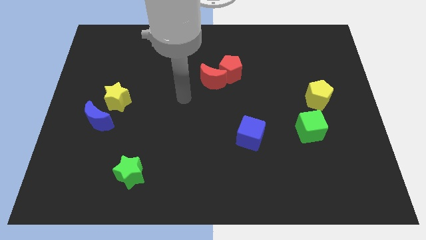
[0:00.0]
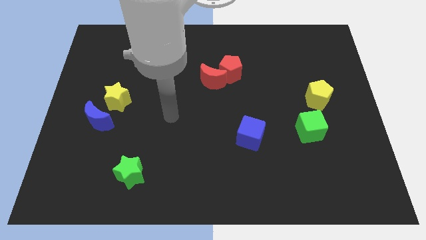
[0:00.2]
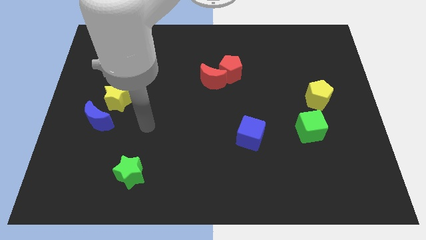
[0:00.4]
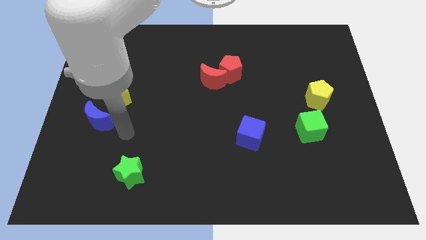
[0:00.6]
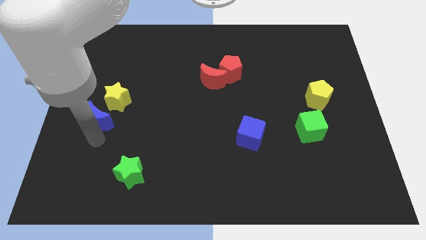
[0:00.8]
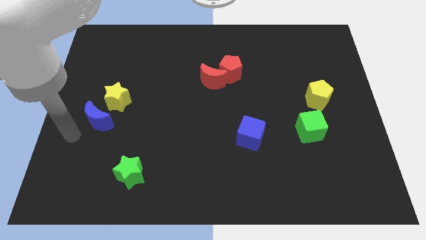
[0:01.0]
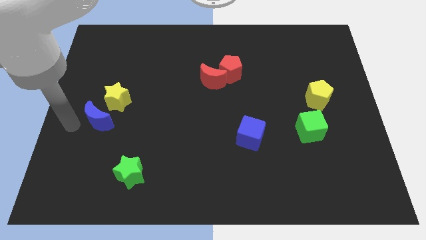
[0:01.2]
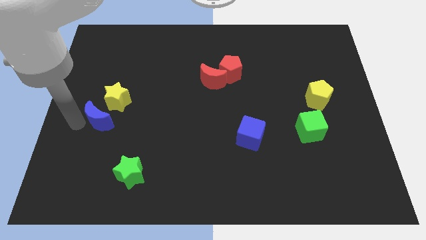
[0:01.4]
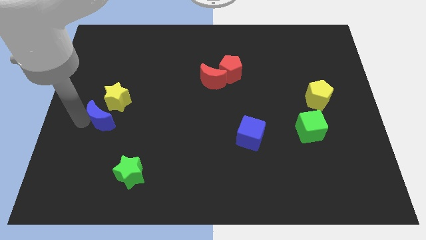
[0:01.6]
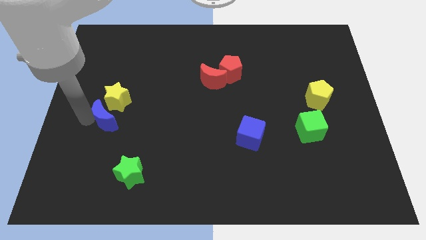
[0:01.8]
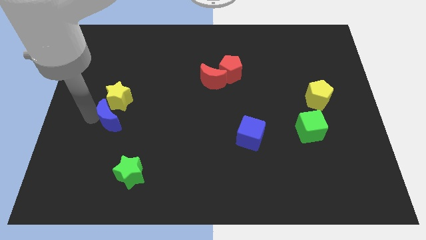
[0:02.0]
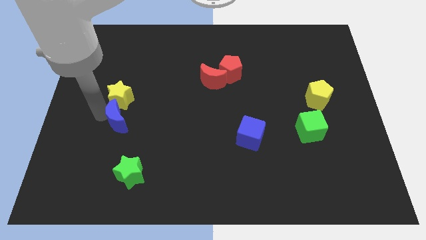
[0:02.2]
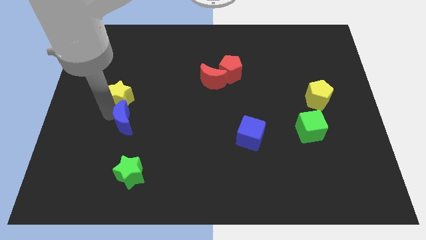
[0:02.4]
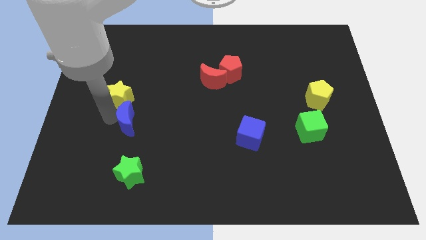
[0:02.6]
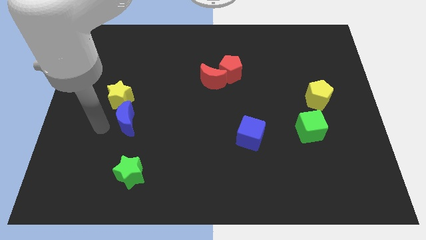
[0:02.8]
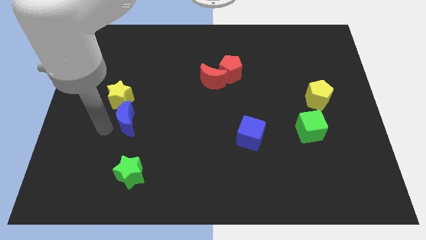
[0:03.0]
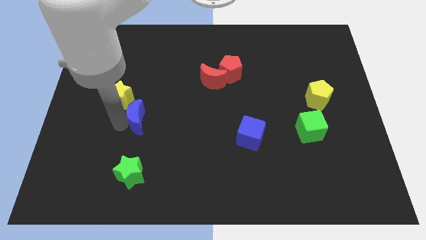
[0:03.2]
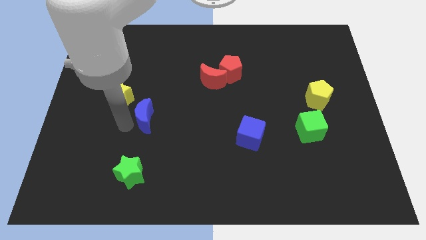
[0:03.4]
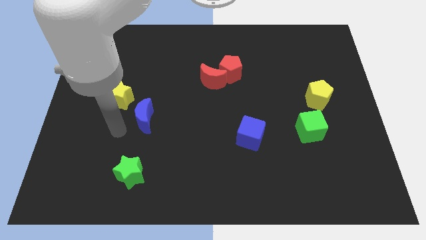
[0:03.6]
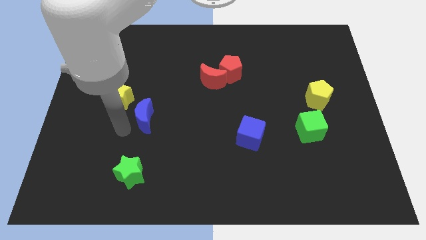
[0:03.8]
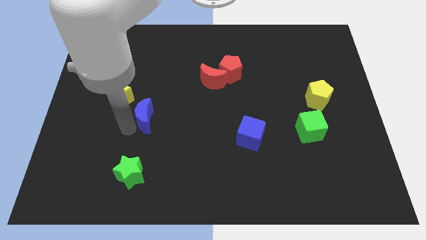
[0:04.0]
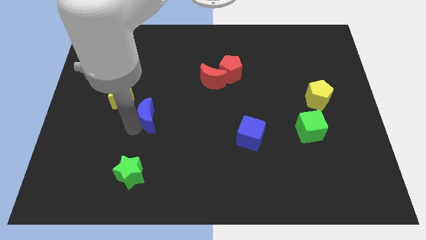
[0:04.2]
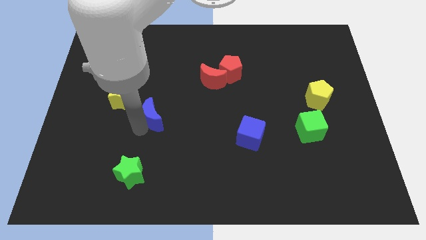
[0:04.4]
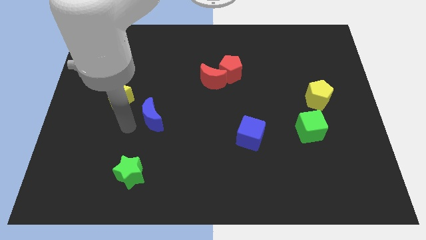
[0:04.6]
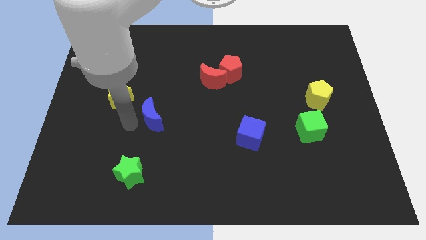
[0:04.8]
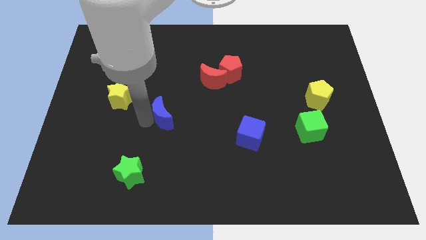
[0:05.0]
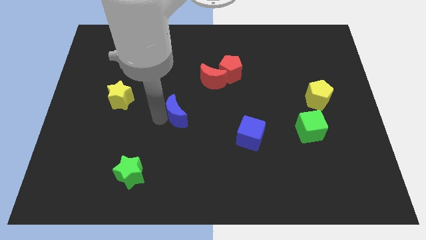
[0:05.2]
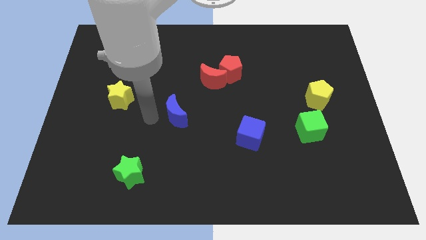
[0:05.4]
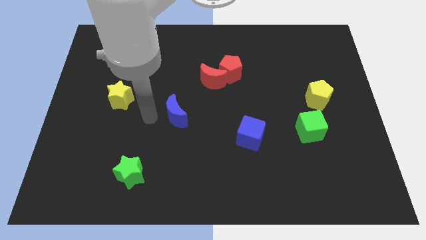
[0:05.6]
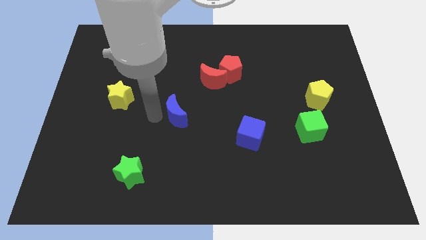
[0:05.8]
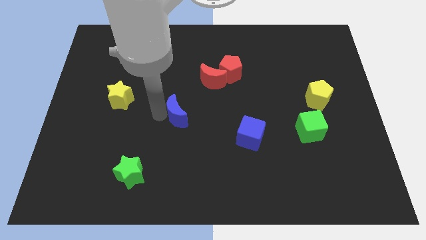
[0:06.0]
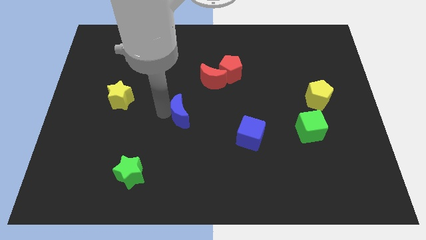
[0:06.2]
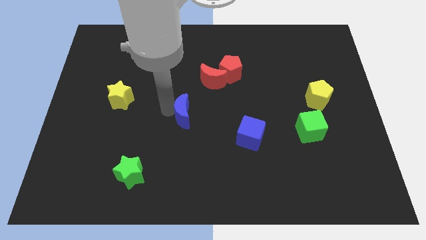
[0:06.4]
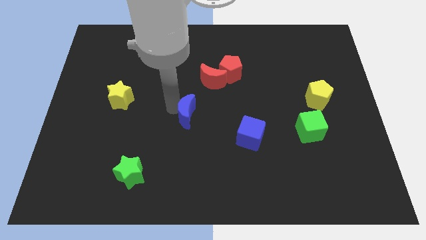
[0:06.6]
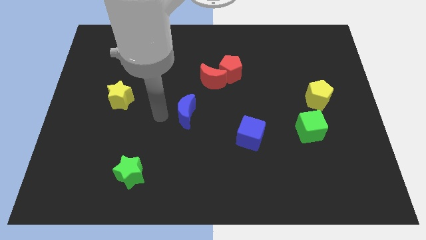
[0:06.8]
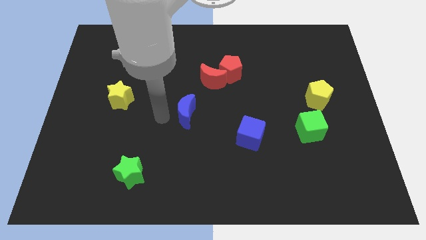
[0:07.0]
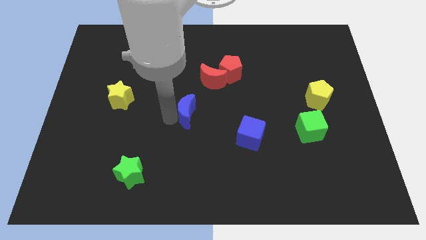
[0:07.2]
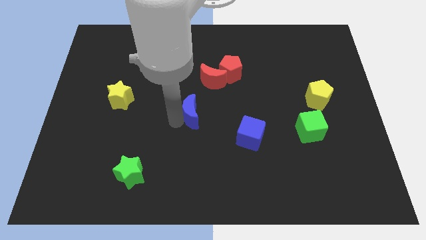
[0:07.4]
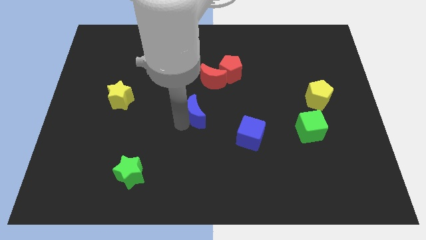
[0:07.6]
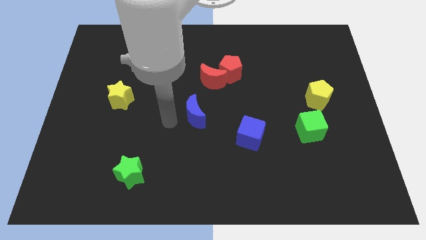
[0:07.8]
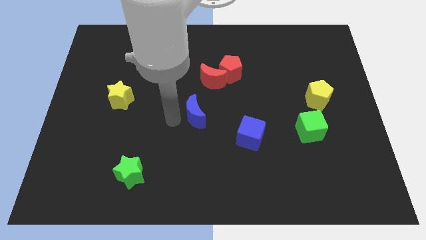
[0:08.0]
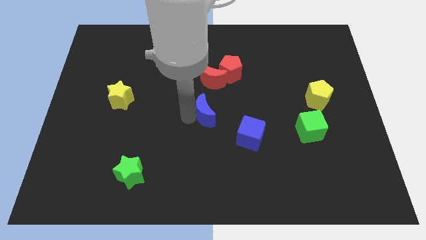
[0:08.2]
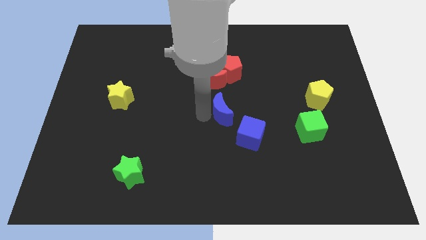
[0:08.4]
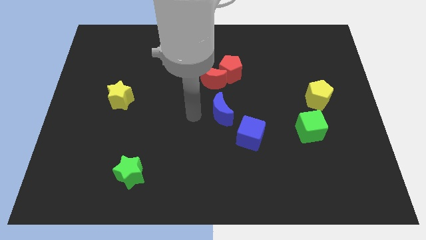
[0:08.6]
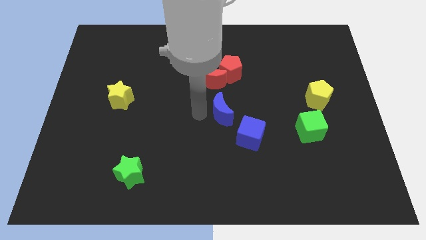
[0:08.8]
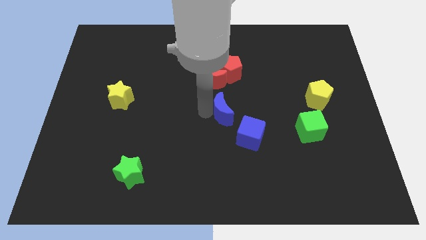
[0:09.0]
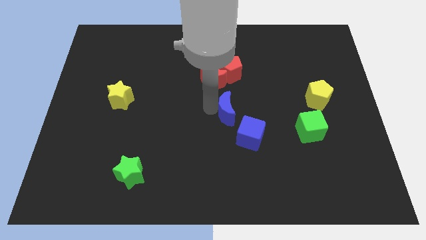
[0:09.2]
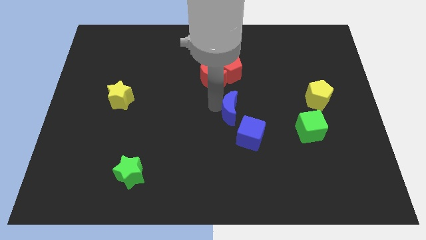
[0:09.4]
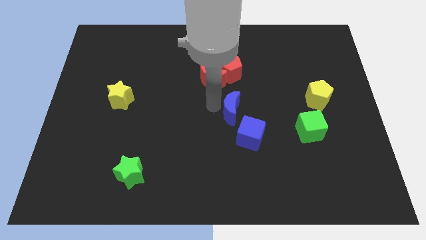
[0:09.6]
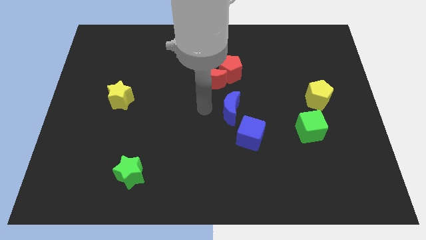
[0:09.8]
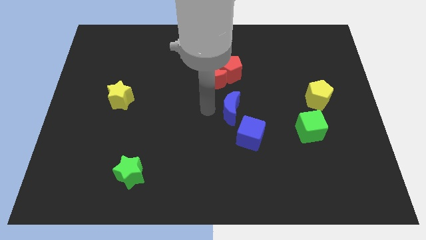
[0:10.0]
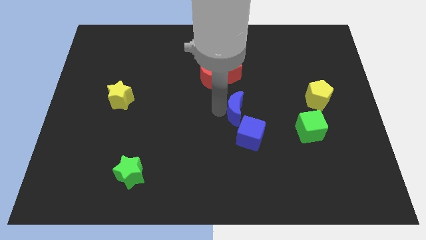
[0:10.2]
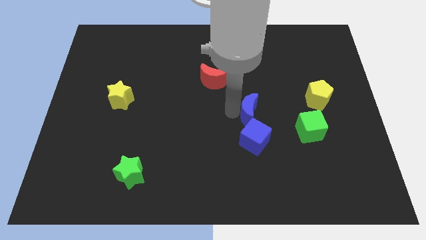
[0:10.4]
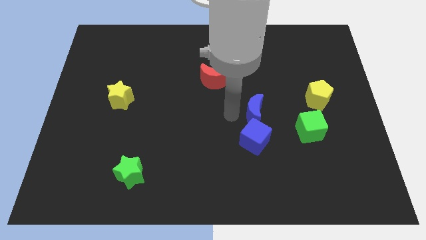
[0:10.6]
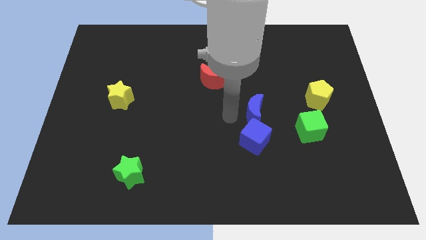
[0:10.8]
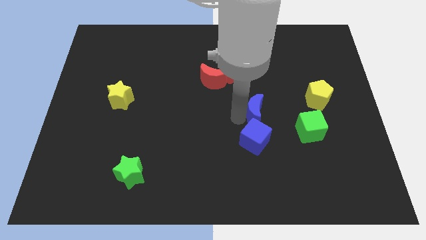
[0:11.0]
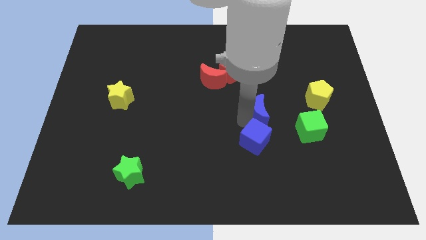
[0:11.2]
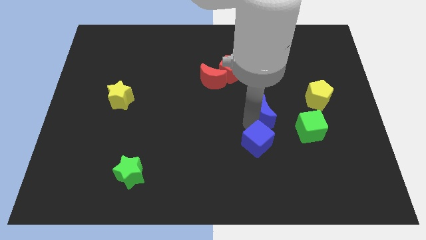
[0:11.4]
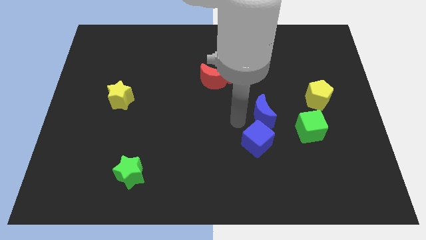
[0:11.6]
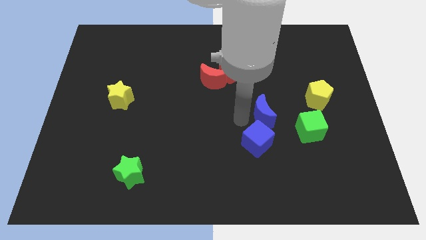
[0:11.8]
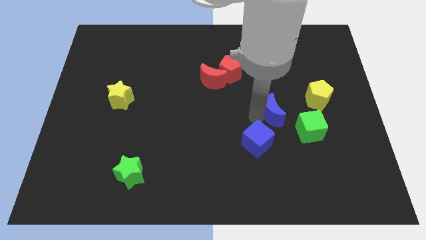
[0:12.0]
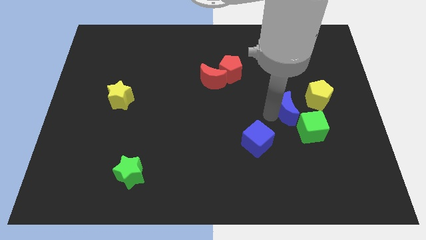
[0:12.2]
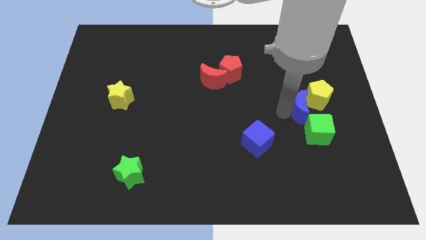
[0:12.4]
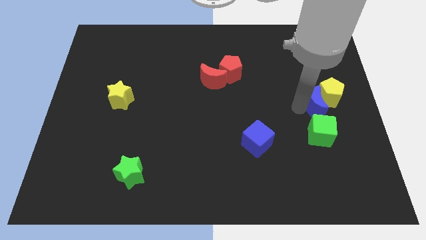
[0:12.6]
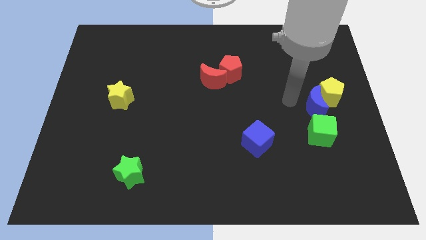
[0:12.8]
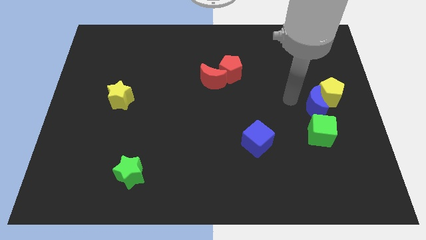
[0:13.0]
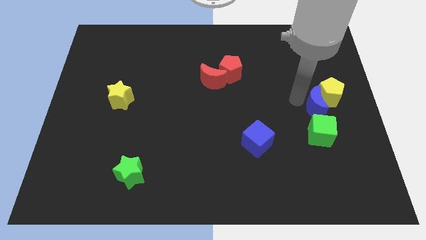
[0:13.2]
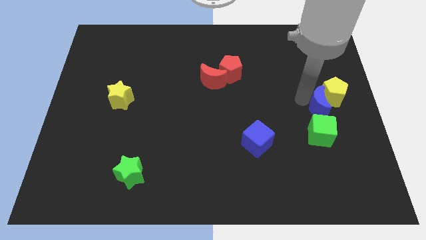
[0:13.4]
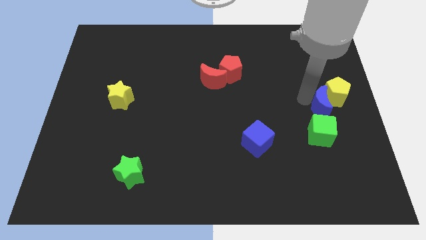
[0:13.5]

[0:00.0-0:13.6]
put the blue moon to the center right

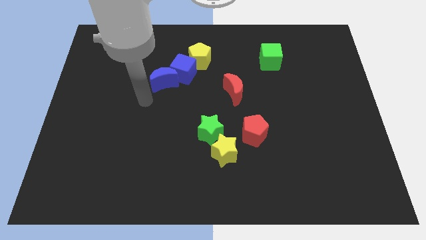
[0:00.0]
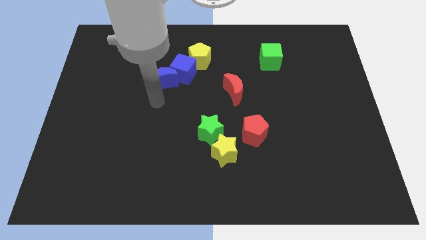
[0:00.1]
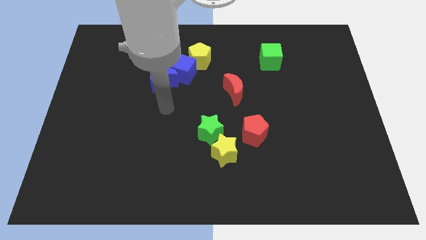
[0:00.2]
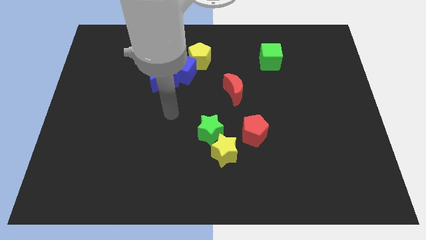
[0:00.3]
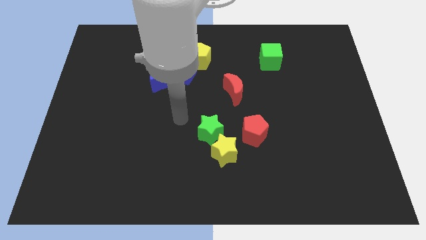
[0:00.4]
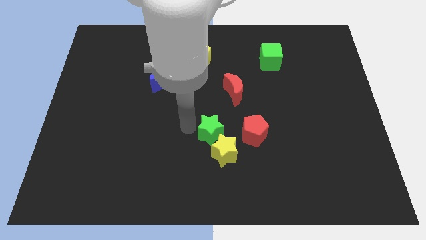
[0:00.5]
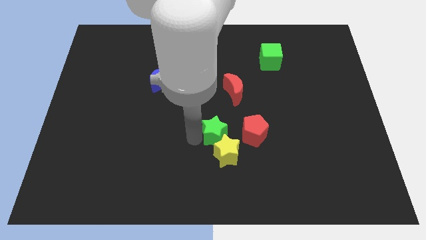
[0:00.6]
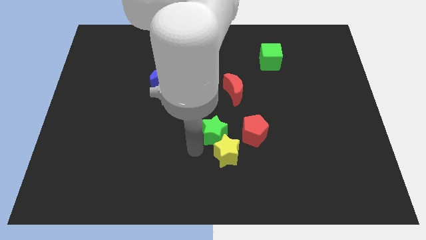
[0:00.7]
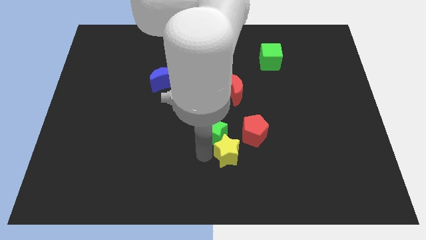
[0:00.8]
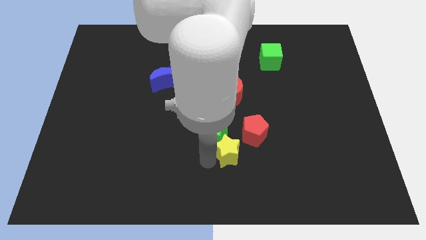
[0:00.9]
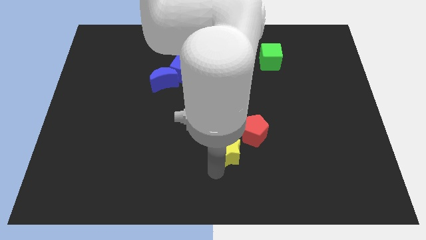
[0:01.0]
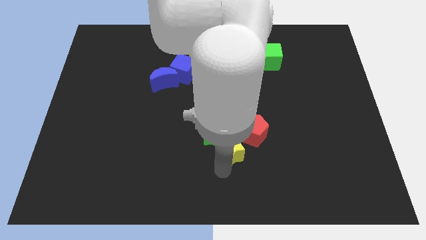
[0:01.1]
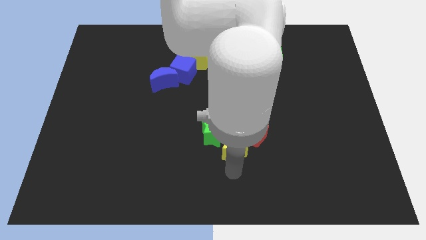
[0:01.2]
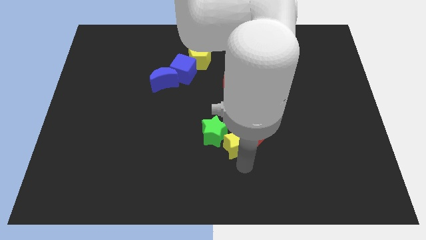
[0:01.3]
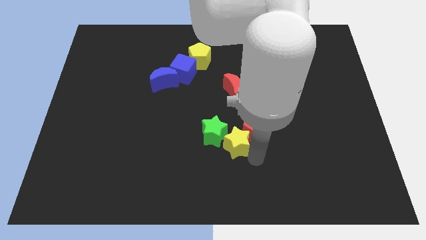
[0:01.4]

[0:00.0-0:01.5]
slide the red pentagon to the center of the board
